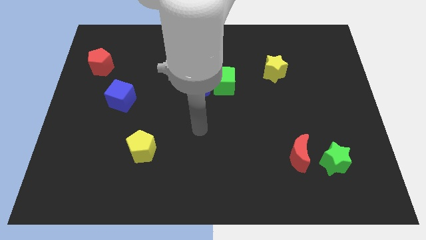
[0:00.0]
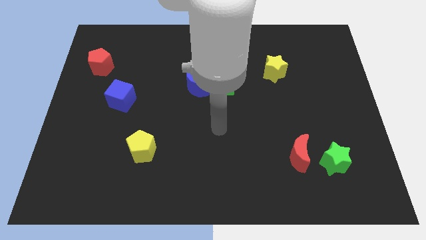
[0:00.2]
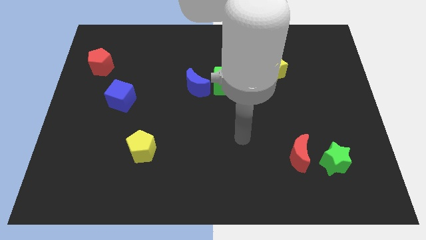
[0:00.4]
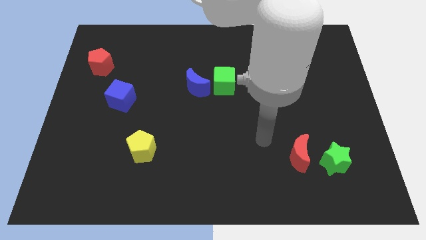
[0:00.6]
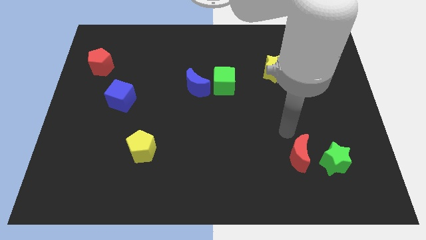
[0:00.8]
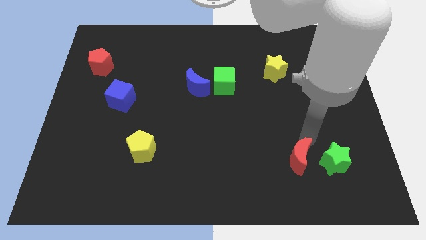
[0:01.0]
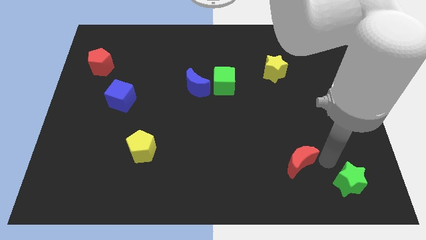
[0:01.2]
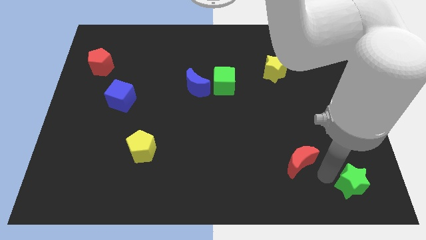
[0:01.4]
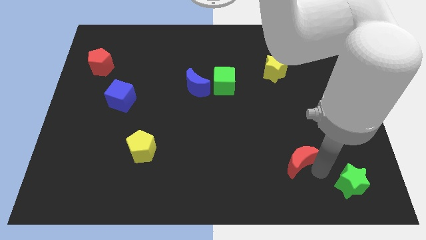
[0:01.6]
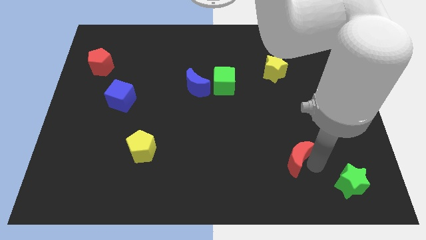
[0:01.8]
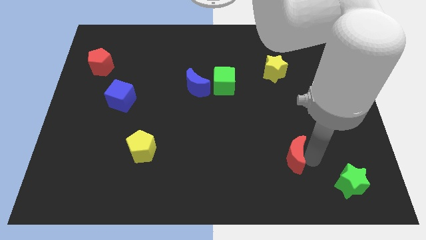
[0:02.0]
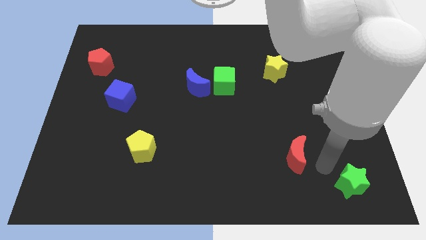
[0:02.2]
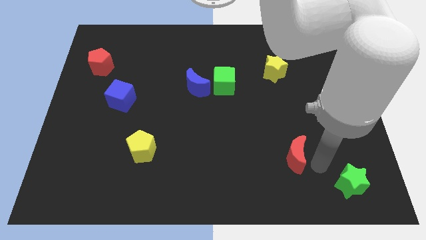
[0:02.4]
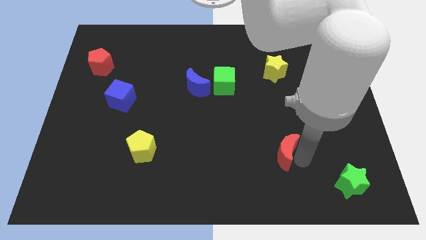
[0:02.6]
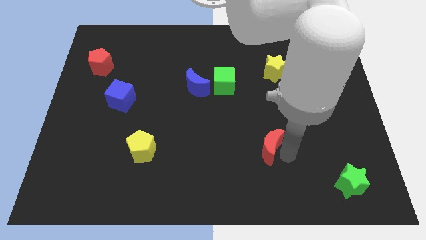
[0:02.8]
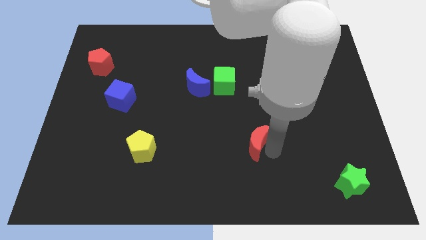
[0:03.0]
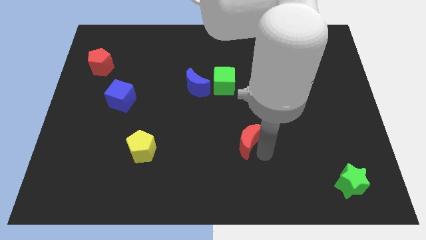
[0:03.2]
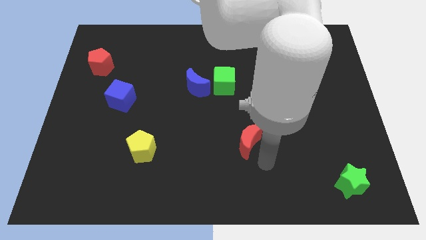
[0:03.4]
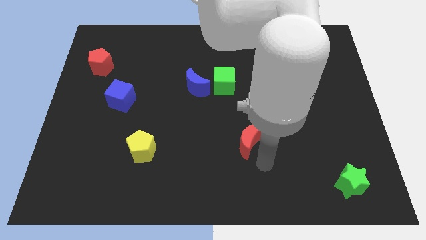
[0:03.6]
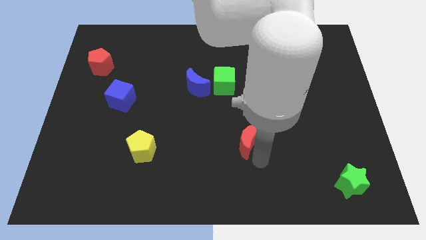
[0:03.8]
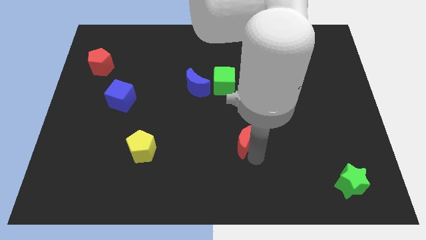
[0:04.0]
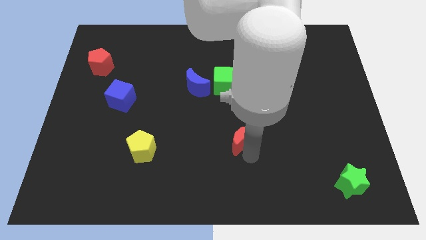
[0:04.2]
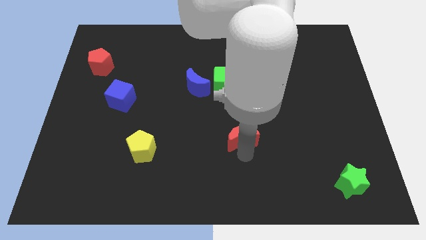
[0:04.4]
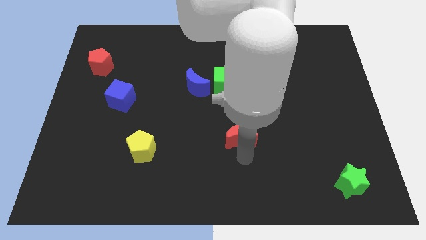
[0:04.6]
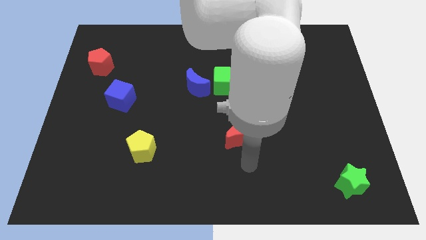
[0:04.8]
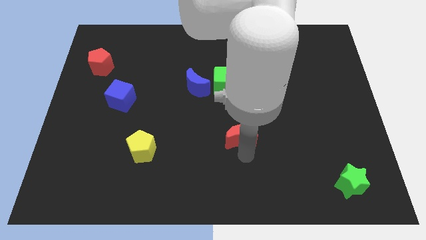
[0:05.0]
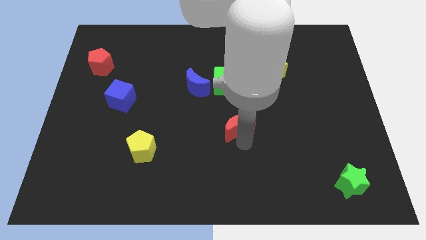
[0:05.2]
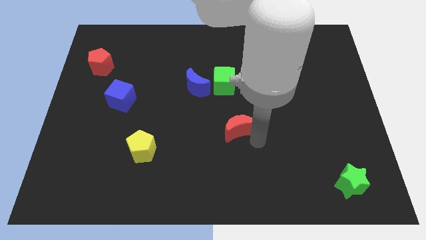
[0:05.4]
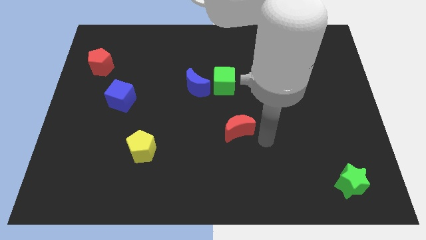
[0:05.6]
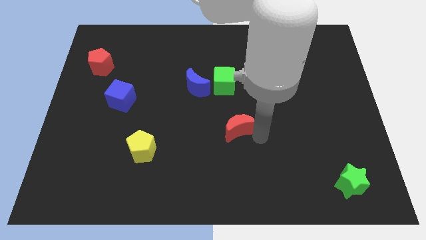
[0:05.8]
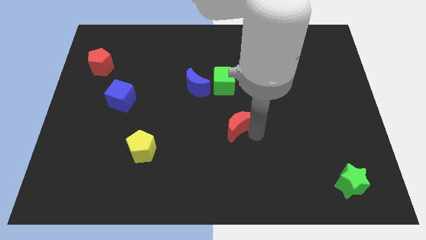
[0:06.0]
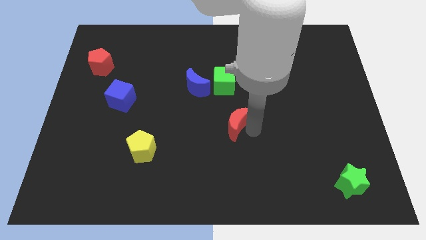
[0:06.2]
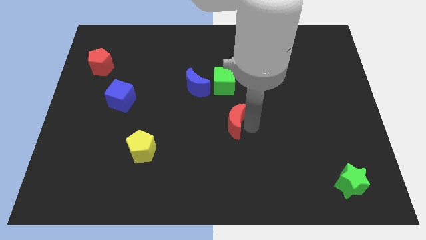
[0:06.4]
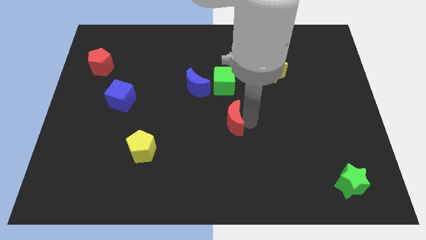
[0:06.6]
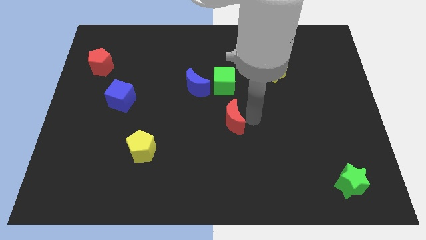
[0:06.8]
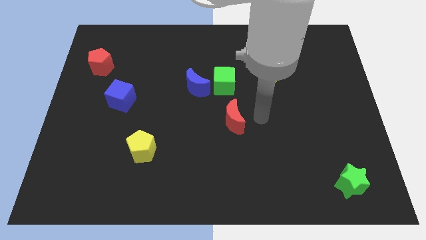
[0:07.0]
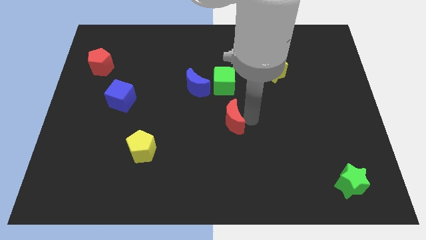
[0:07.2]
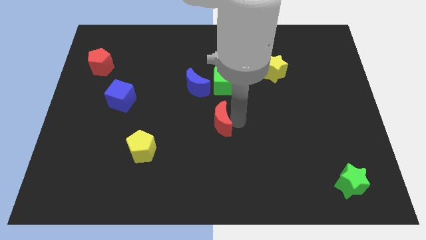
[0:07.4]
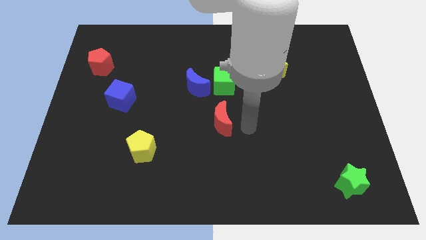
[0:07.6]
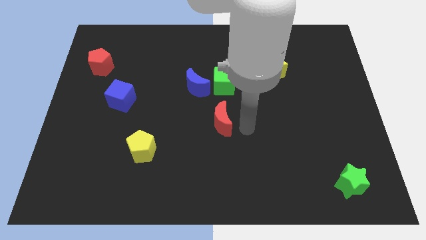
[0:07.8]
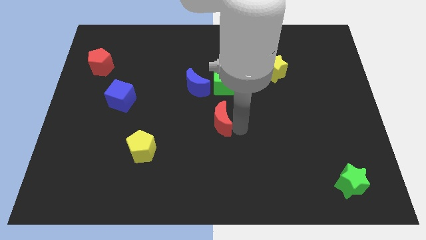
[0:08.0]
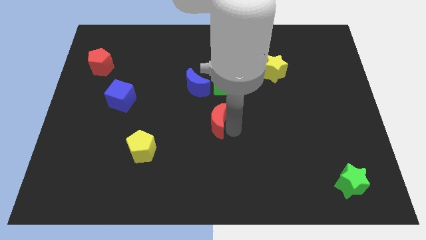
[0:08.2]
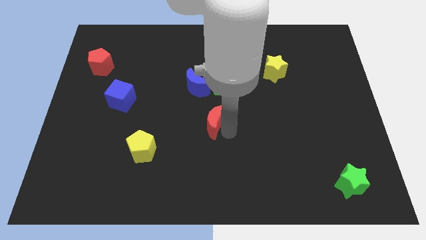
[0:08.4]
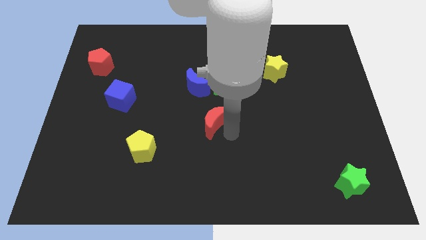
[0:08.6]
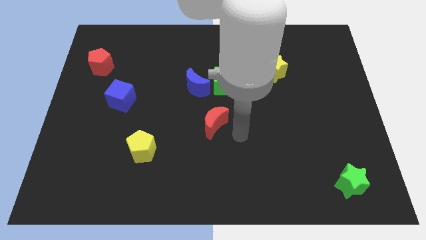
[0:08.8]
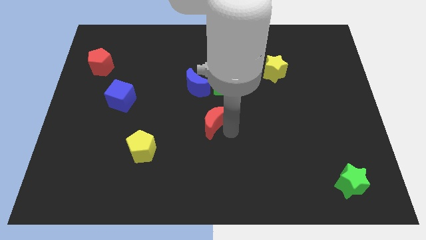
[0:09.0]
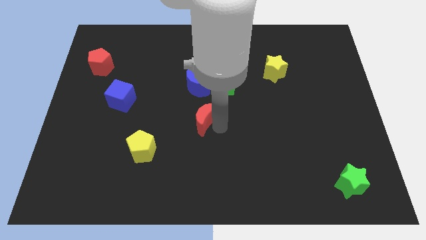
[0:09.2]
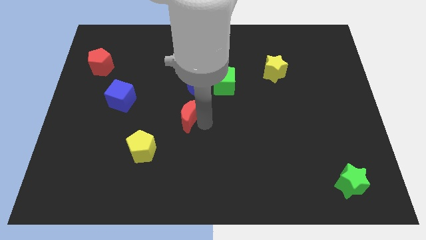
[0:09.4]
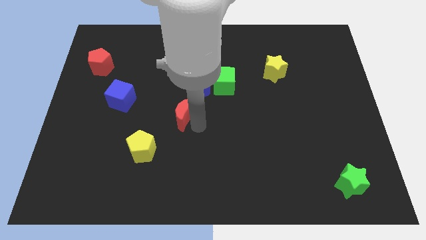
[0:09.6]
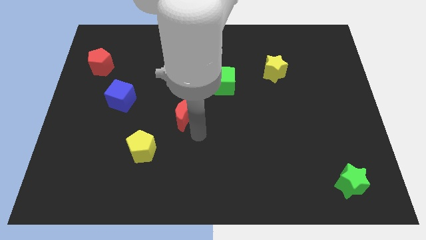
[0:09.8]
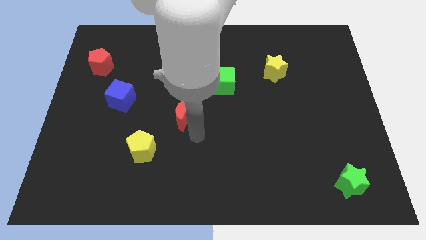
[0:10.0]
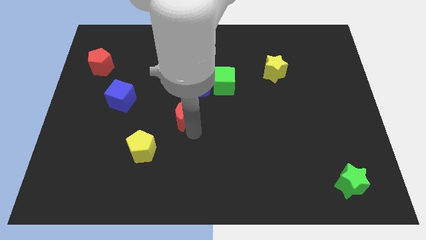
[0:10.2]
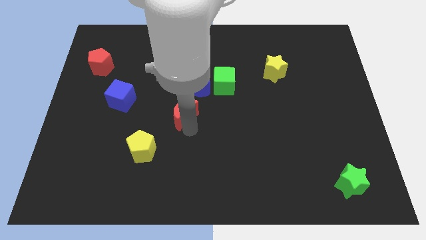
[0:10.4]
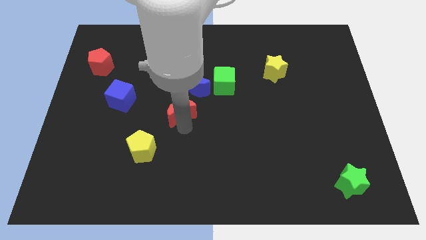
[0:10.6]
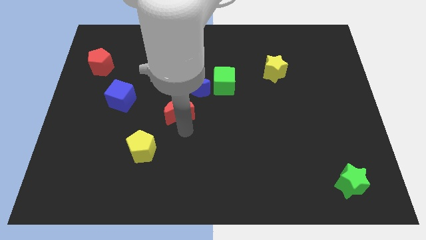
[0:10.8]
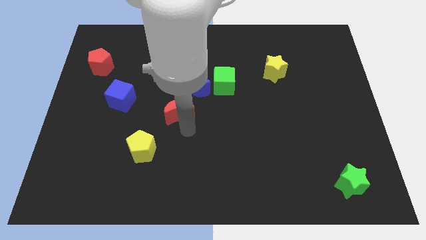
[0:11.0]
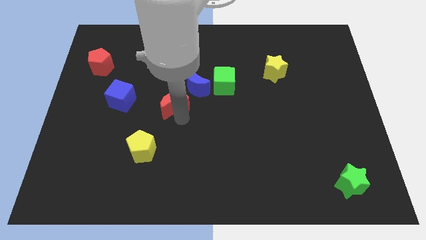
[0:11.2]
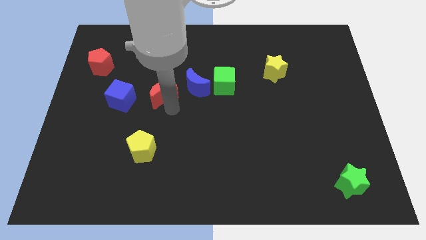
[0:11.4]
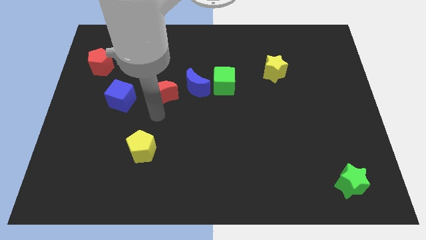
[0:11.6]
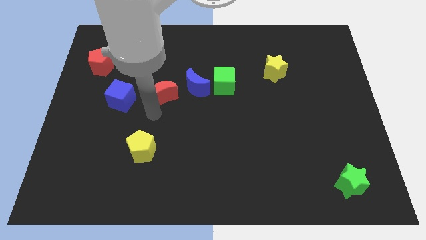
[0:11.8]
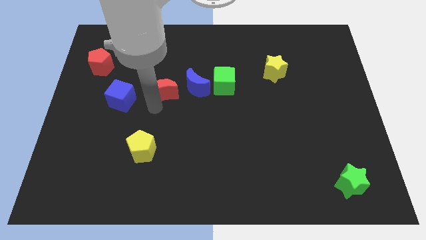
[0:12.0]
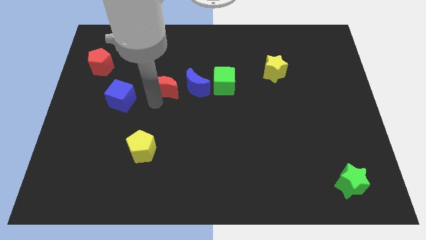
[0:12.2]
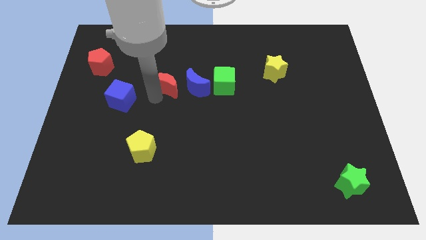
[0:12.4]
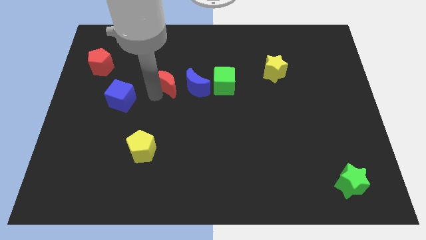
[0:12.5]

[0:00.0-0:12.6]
slide the red moon to the top left side of the blue moon

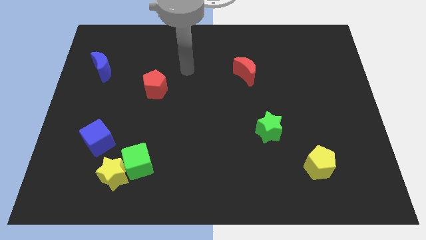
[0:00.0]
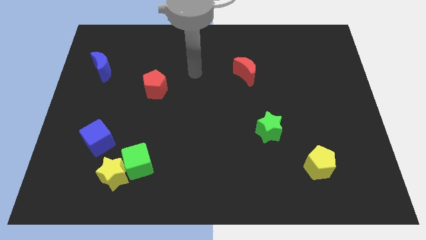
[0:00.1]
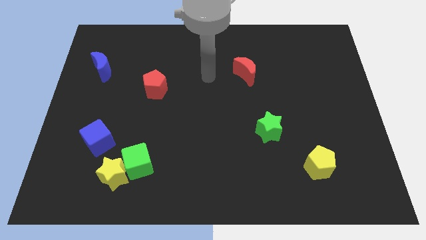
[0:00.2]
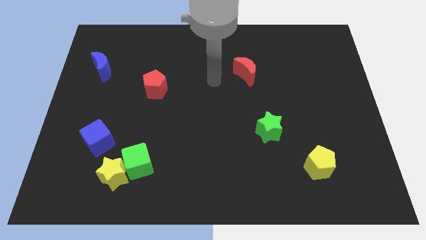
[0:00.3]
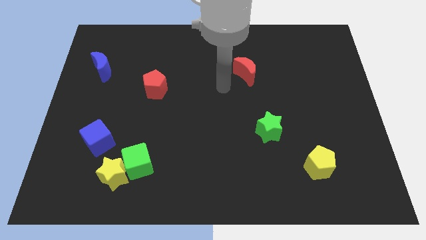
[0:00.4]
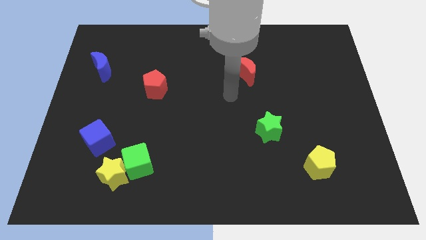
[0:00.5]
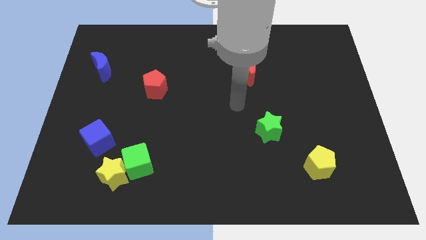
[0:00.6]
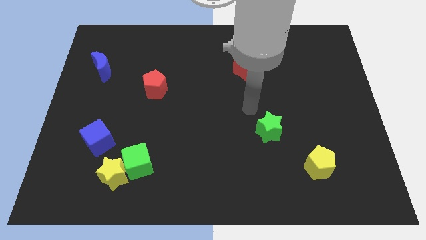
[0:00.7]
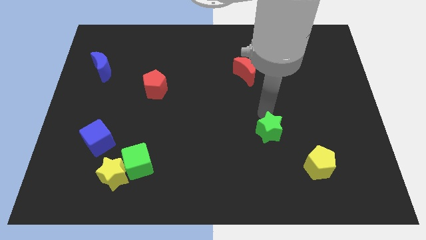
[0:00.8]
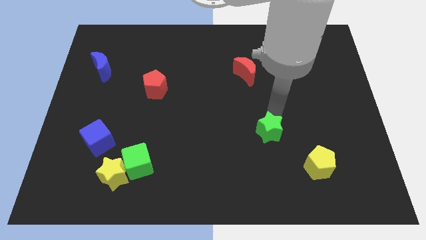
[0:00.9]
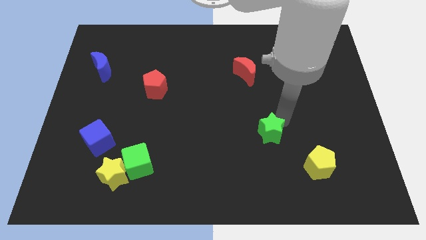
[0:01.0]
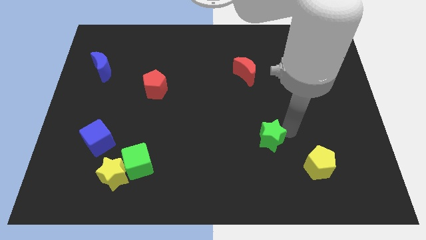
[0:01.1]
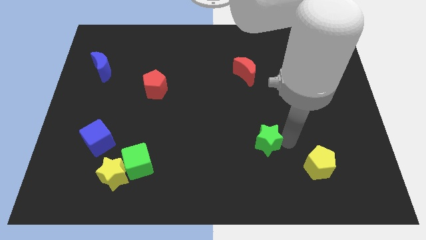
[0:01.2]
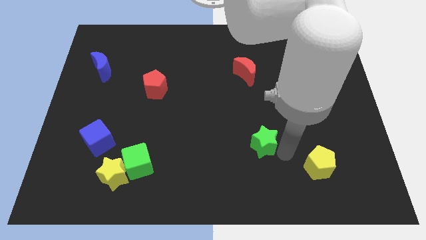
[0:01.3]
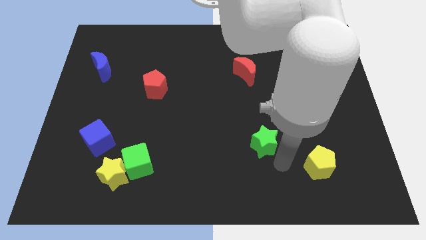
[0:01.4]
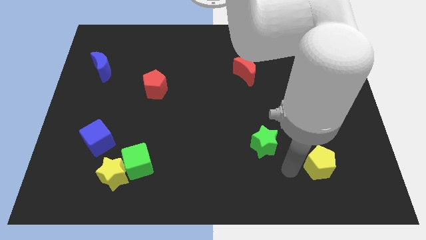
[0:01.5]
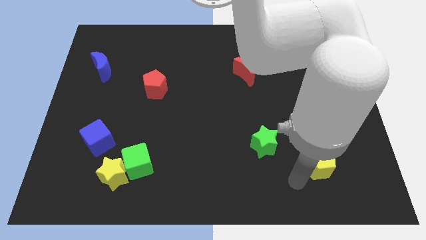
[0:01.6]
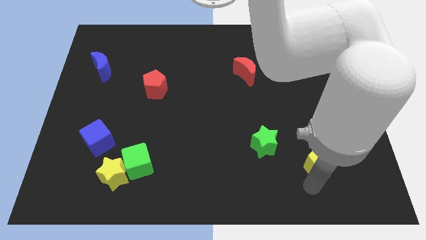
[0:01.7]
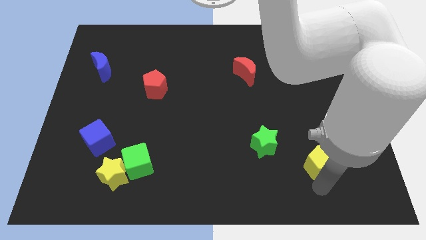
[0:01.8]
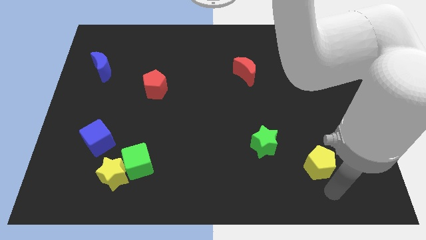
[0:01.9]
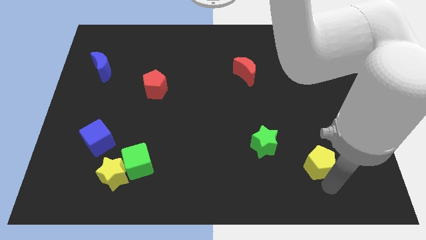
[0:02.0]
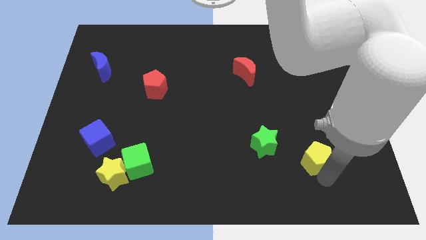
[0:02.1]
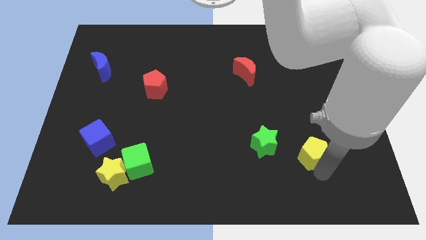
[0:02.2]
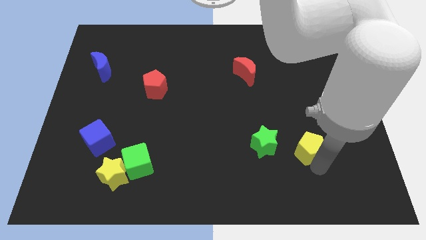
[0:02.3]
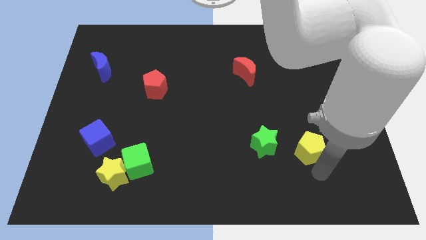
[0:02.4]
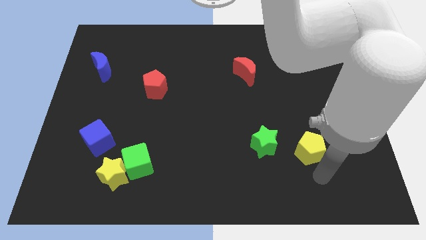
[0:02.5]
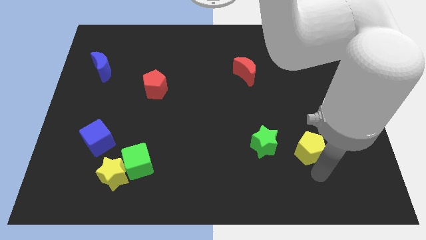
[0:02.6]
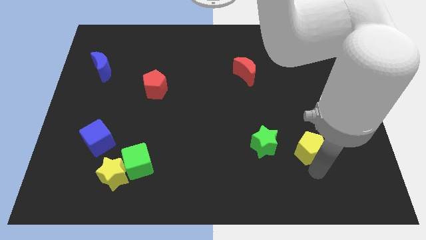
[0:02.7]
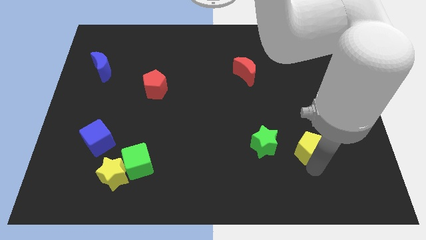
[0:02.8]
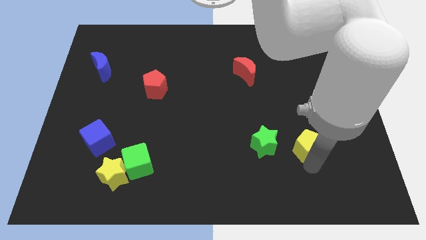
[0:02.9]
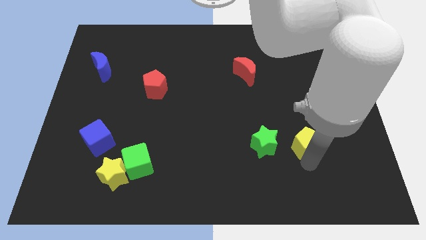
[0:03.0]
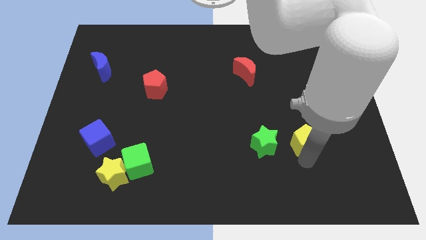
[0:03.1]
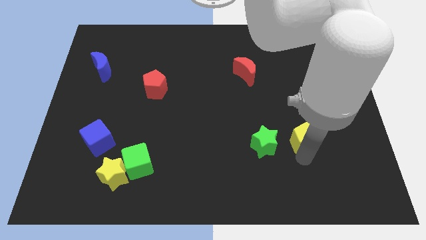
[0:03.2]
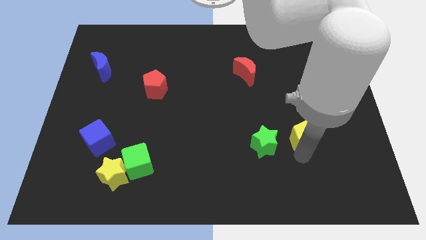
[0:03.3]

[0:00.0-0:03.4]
move the yellow pentagon diagonally up and to the right of the green star
